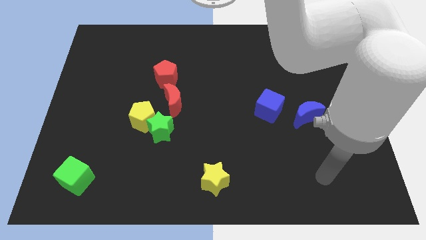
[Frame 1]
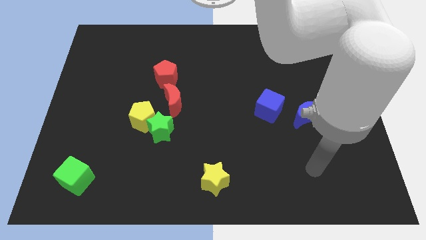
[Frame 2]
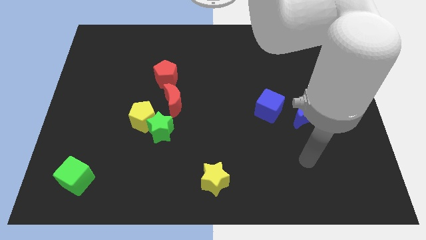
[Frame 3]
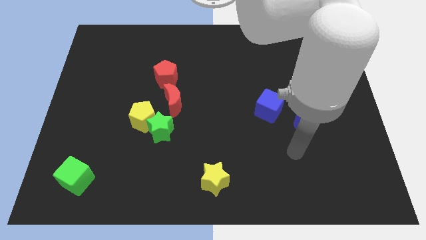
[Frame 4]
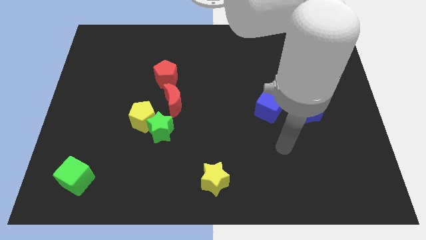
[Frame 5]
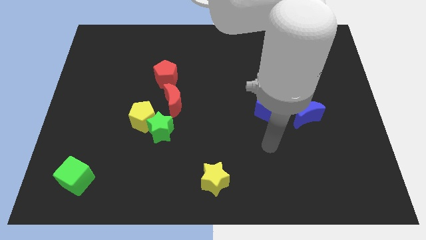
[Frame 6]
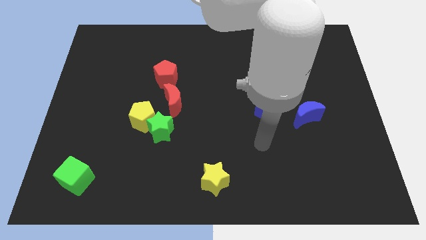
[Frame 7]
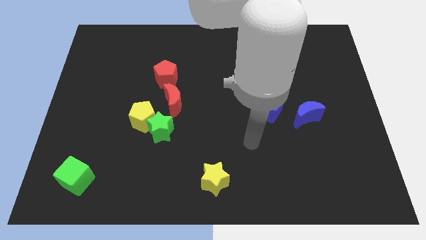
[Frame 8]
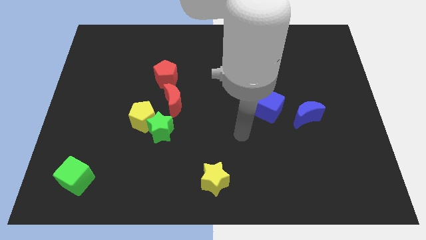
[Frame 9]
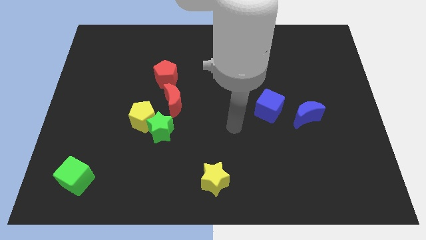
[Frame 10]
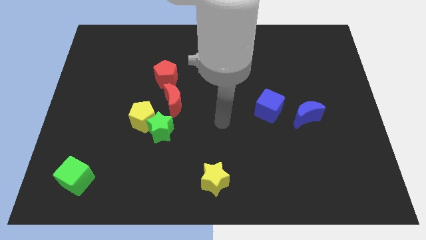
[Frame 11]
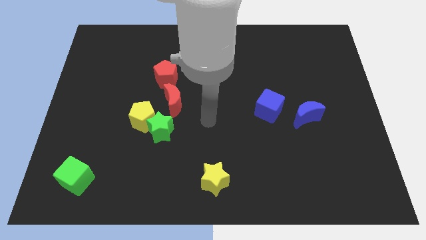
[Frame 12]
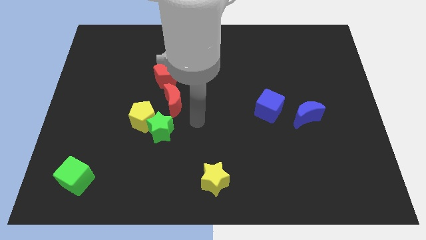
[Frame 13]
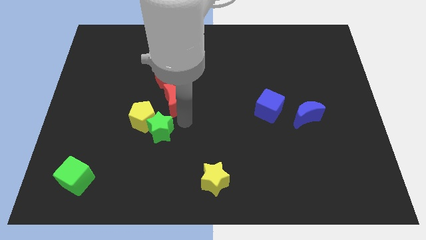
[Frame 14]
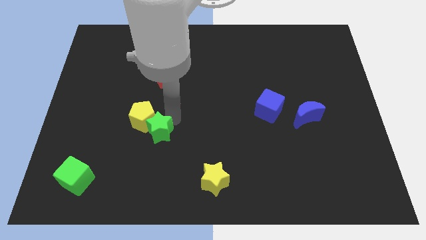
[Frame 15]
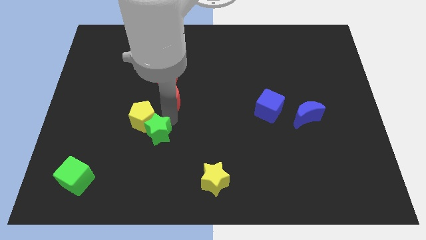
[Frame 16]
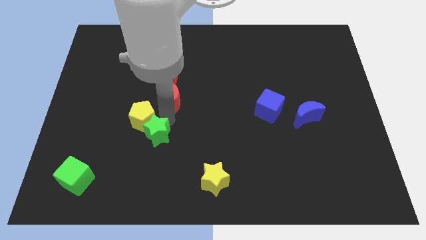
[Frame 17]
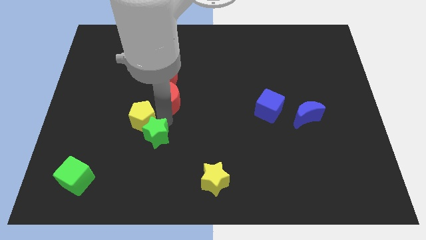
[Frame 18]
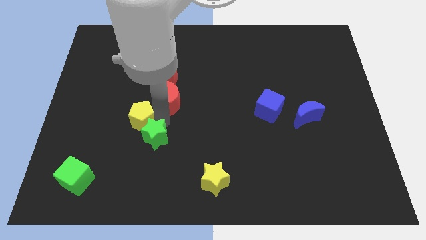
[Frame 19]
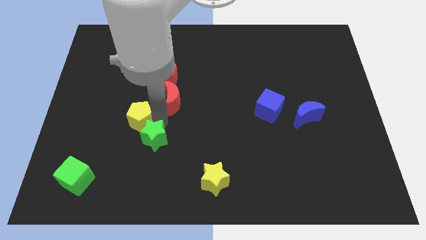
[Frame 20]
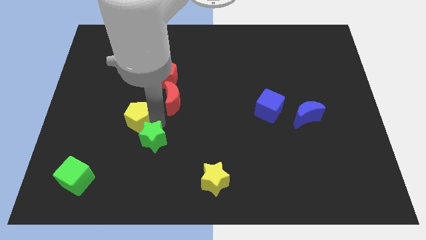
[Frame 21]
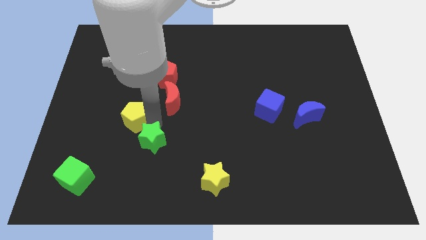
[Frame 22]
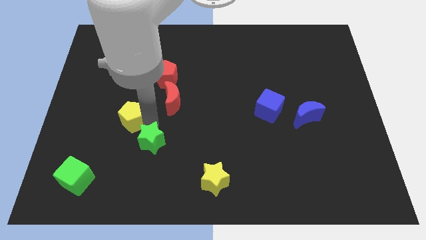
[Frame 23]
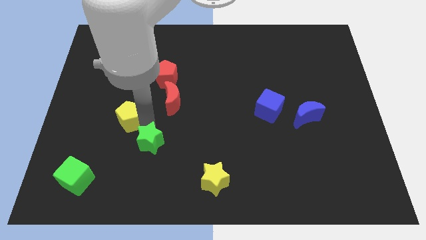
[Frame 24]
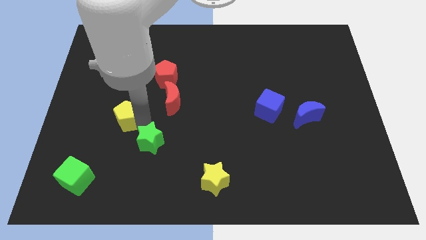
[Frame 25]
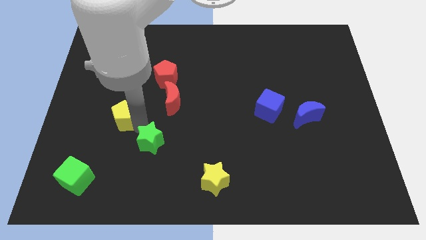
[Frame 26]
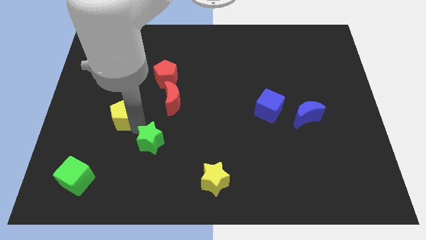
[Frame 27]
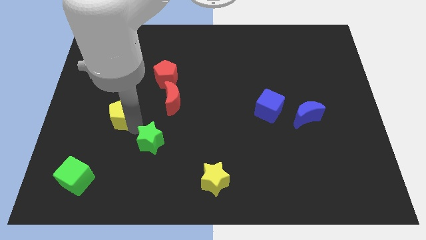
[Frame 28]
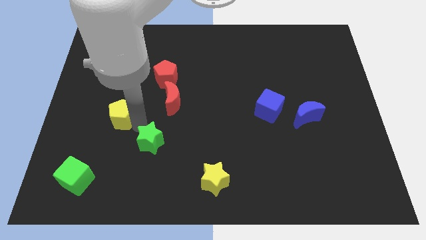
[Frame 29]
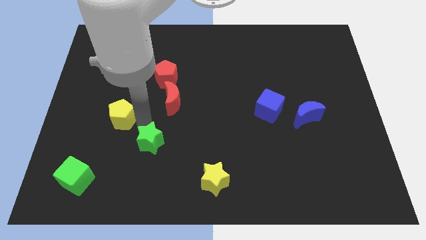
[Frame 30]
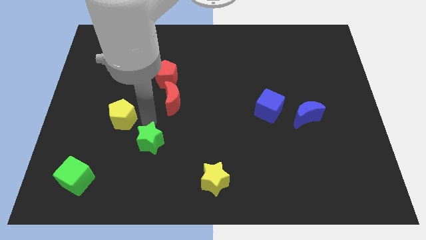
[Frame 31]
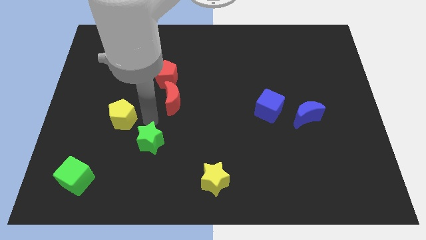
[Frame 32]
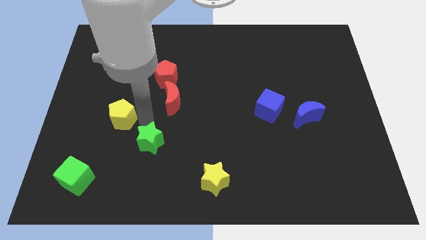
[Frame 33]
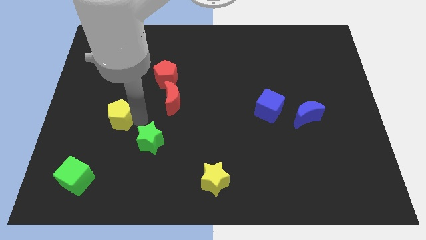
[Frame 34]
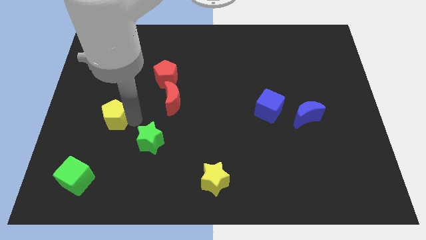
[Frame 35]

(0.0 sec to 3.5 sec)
separate the yellow pentagon from the green star and red moon

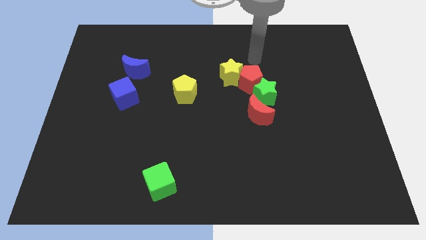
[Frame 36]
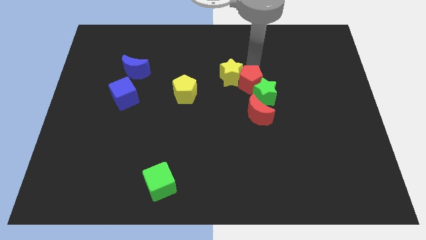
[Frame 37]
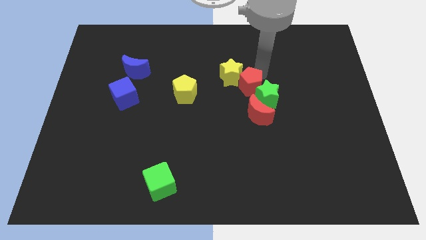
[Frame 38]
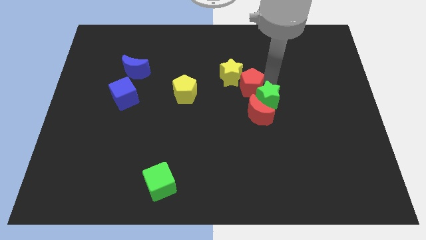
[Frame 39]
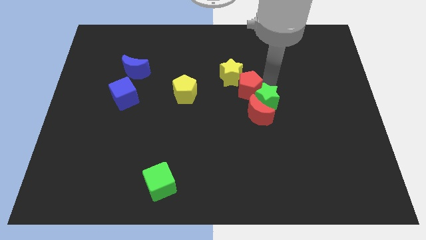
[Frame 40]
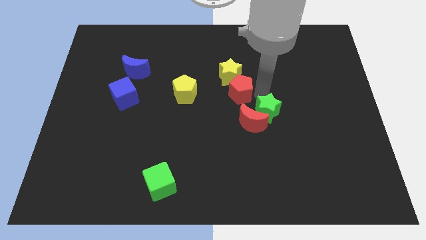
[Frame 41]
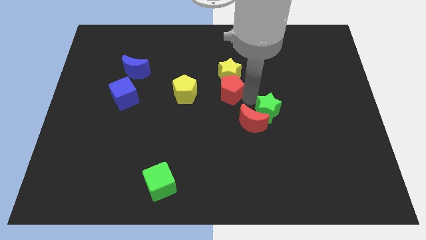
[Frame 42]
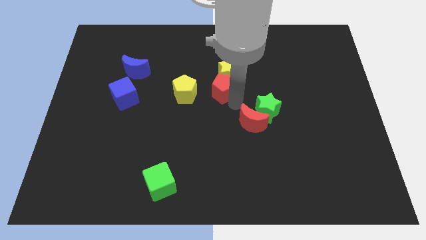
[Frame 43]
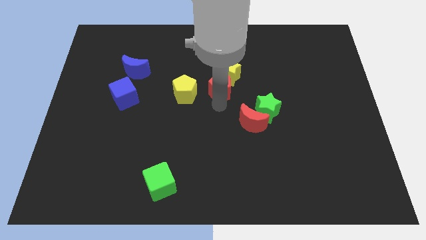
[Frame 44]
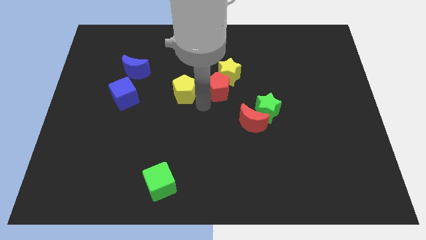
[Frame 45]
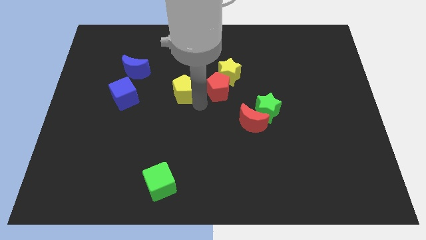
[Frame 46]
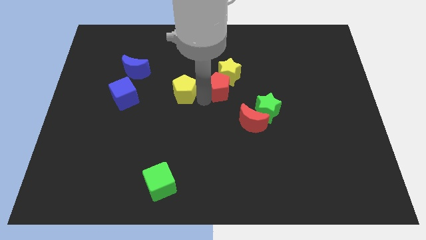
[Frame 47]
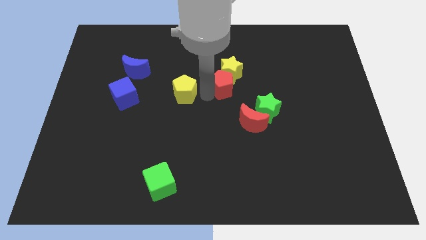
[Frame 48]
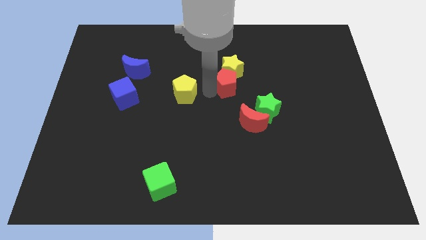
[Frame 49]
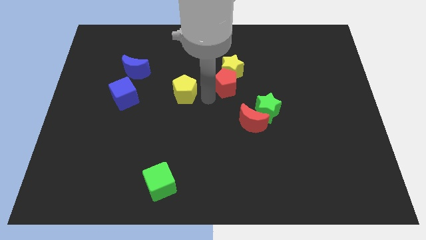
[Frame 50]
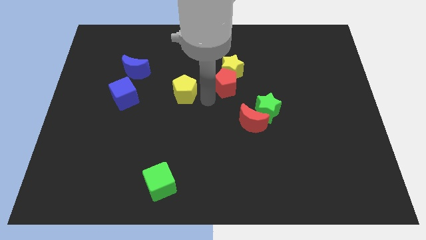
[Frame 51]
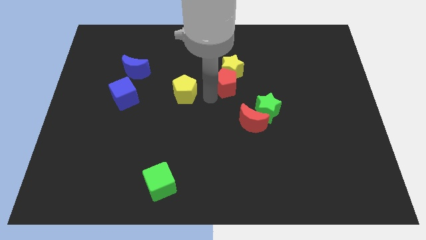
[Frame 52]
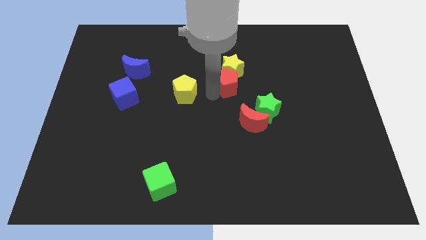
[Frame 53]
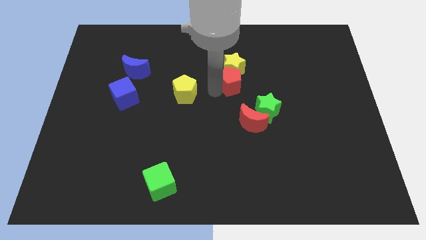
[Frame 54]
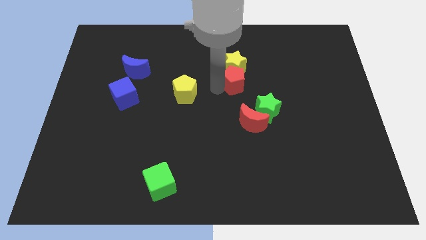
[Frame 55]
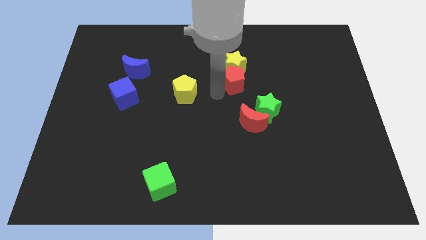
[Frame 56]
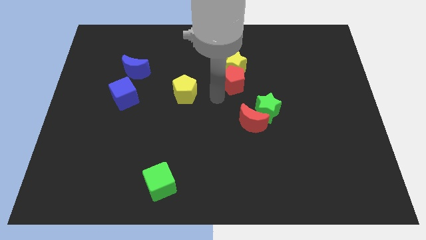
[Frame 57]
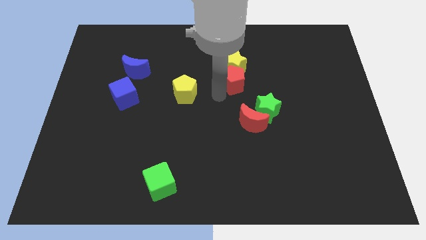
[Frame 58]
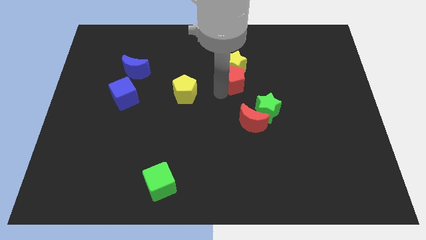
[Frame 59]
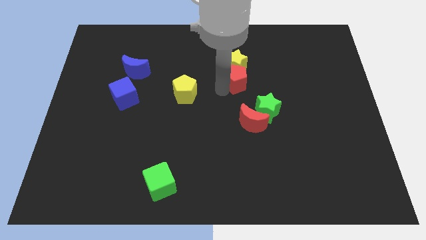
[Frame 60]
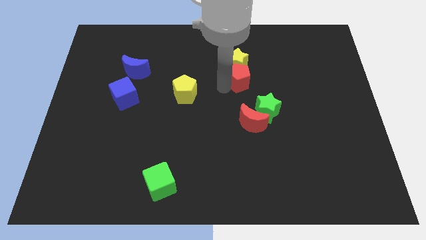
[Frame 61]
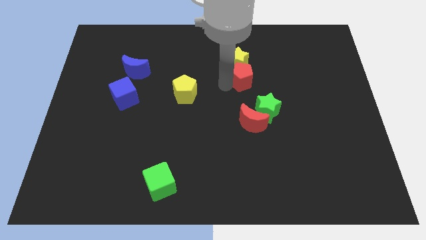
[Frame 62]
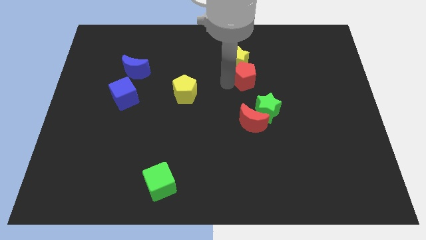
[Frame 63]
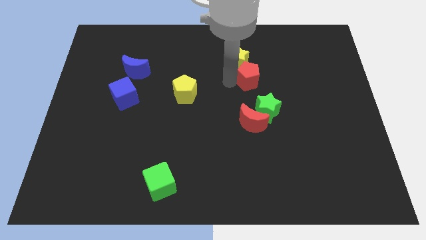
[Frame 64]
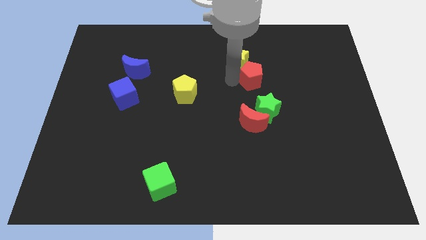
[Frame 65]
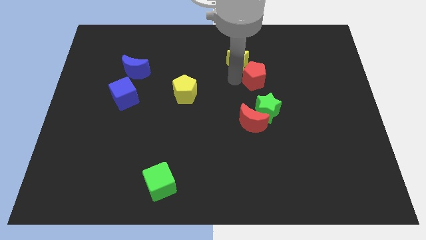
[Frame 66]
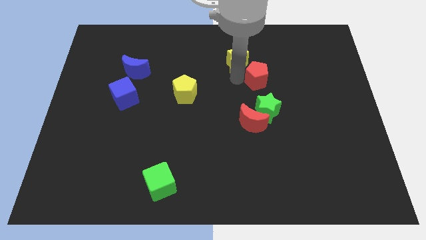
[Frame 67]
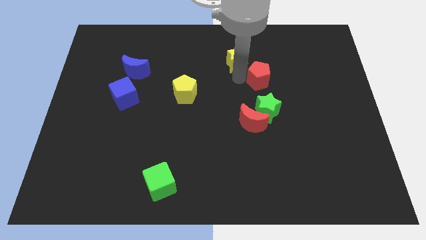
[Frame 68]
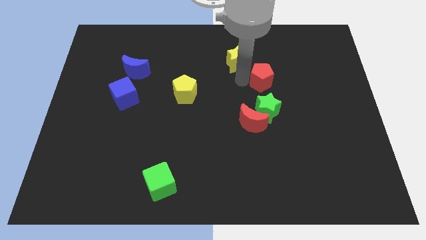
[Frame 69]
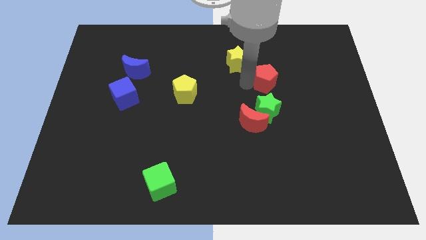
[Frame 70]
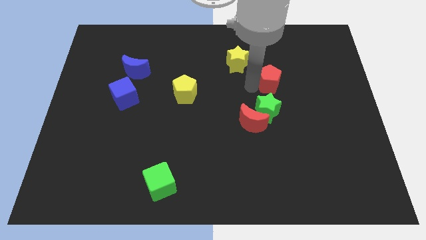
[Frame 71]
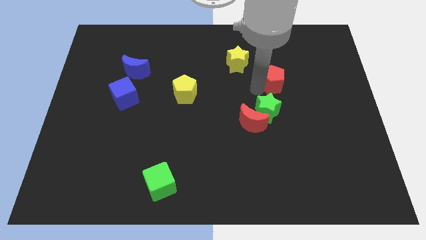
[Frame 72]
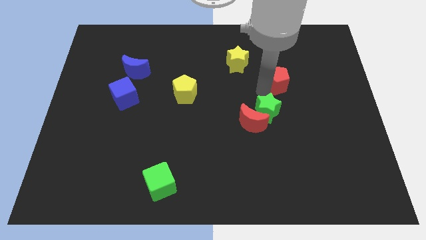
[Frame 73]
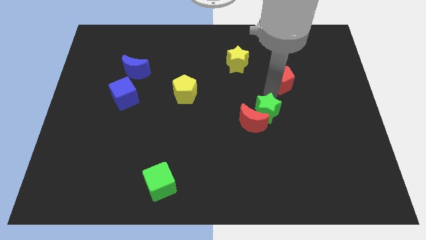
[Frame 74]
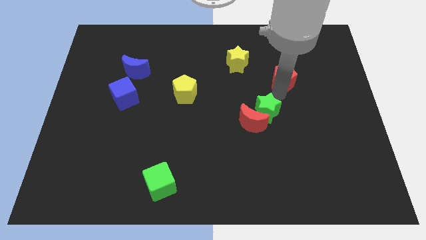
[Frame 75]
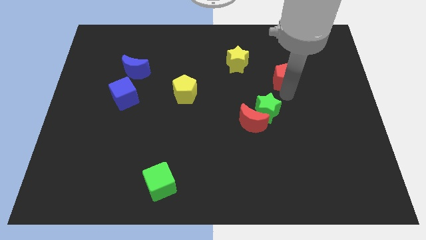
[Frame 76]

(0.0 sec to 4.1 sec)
pull the red pentagon apart from the yellow star, green star, and red moon

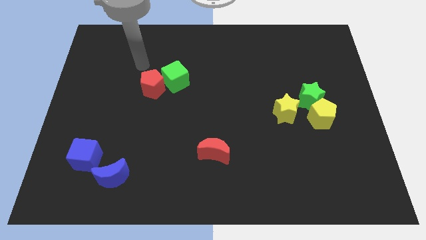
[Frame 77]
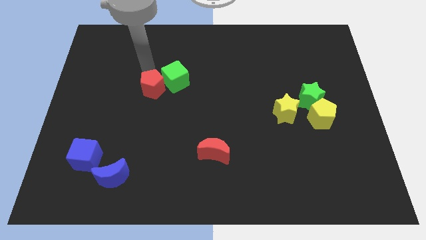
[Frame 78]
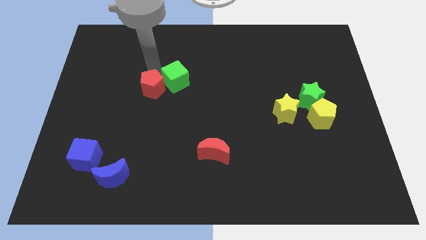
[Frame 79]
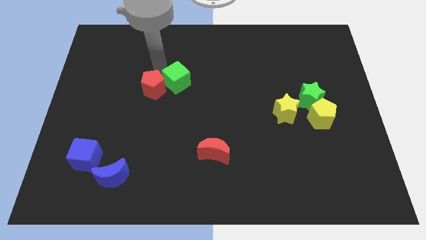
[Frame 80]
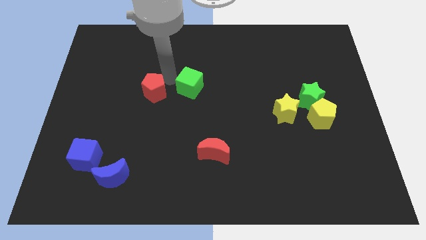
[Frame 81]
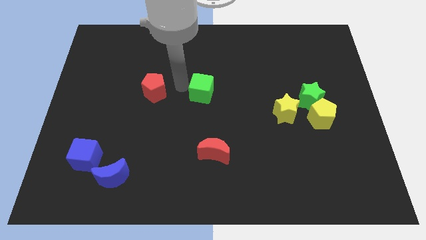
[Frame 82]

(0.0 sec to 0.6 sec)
move the red pentagon away from the green cube

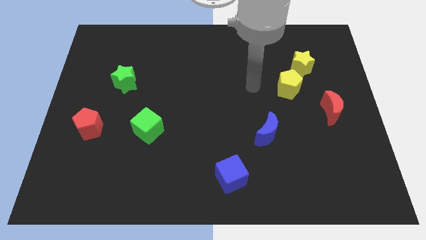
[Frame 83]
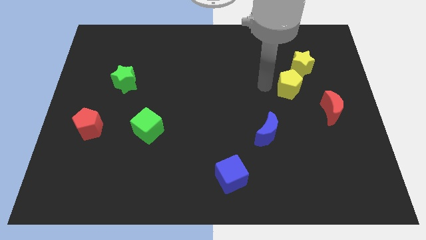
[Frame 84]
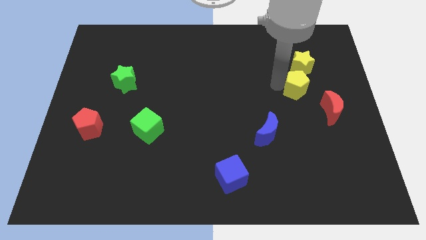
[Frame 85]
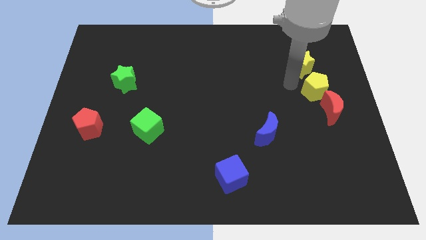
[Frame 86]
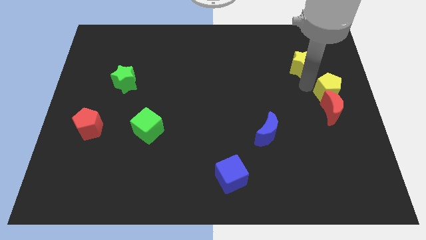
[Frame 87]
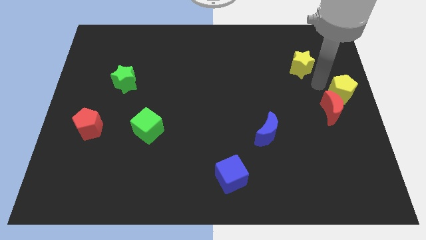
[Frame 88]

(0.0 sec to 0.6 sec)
move the yellow star away from the yellow pentagon

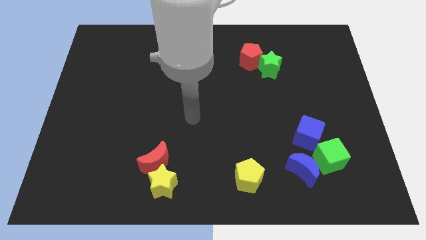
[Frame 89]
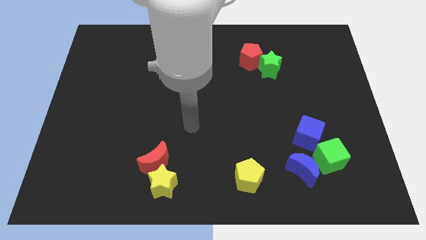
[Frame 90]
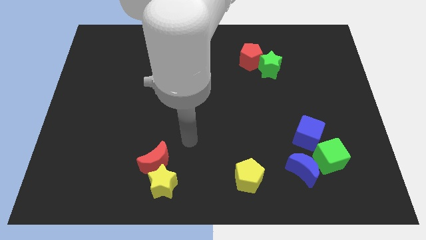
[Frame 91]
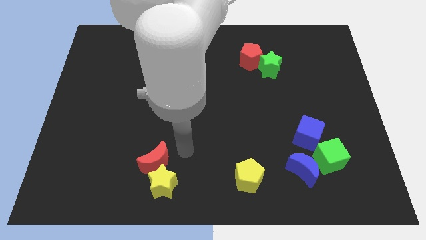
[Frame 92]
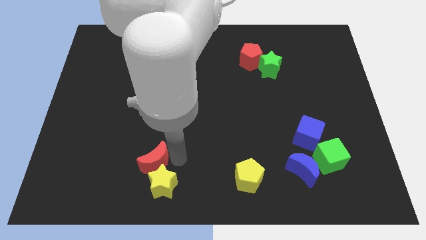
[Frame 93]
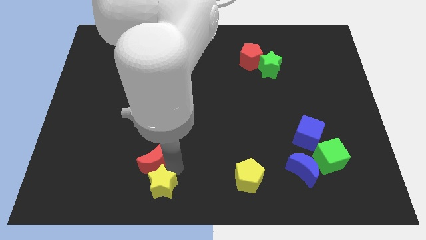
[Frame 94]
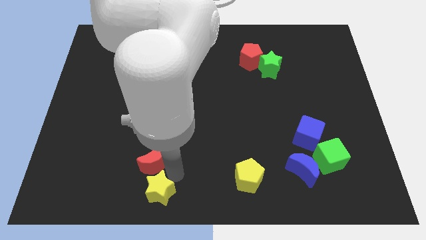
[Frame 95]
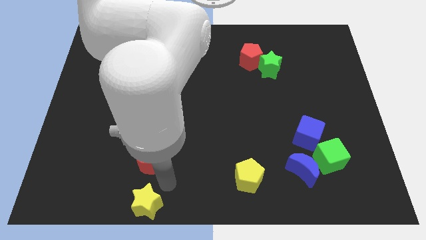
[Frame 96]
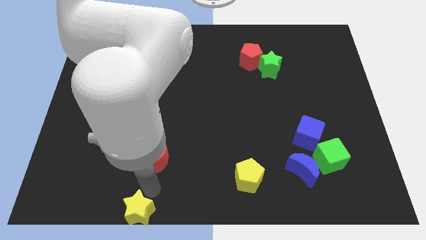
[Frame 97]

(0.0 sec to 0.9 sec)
pull the red moon apart from the yellow star
